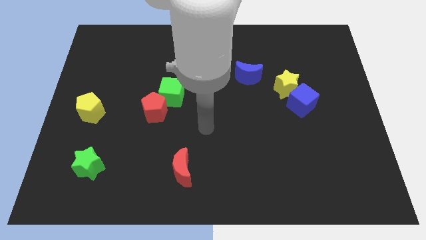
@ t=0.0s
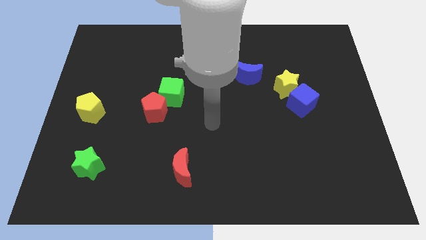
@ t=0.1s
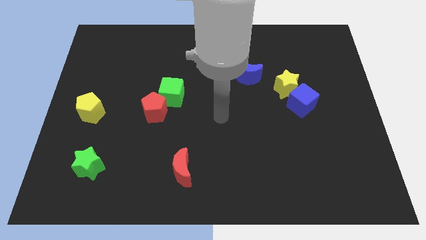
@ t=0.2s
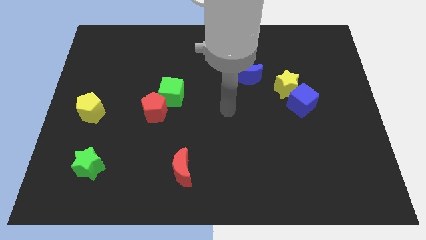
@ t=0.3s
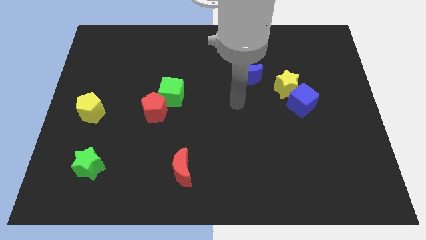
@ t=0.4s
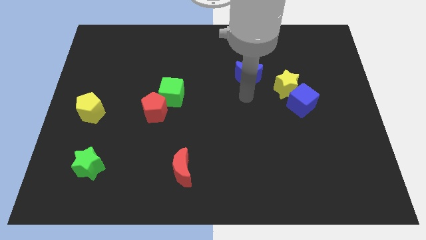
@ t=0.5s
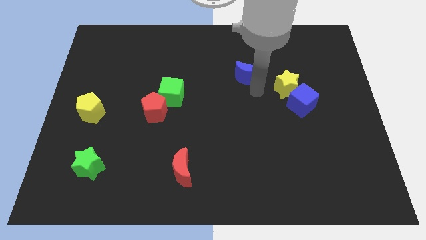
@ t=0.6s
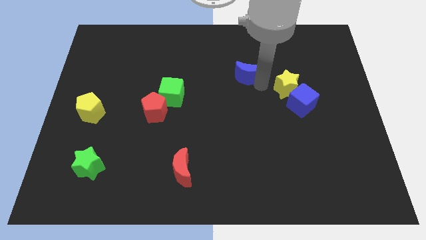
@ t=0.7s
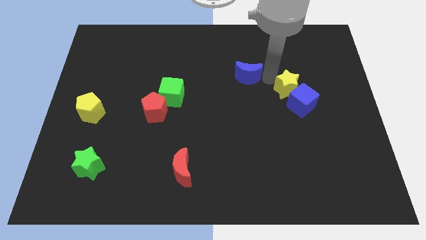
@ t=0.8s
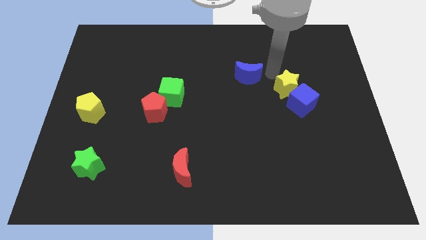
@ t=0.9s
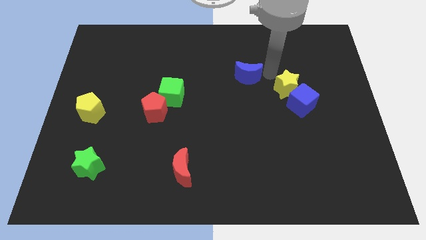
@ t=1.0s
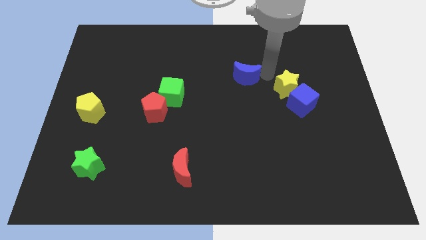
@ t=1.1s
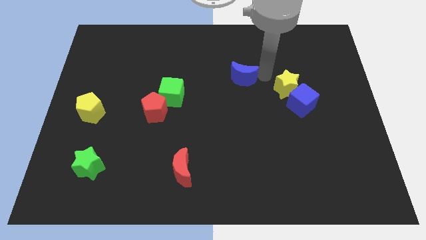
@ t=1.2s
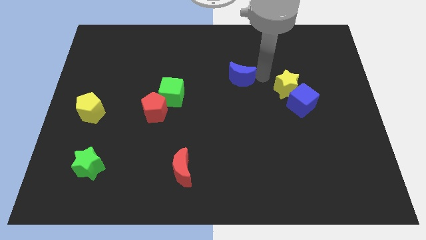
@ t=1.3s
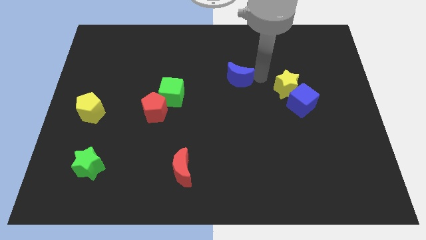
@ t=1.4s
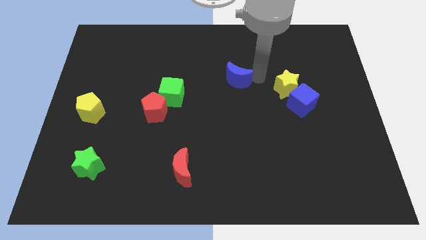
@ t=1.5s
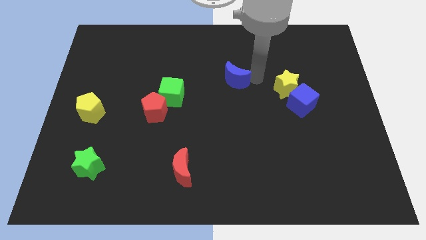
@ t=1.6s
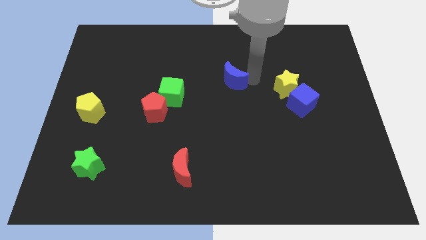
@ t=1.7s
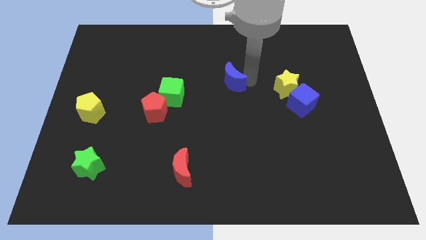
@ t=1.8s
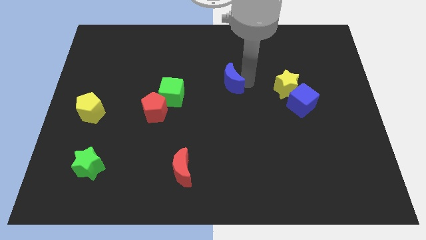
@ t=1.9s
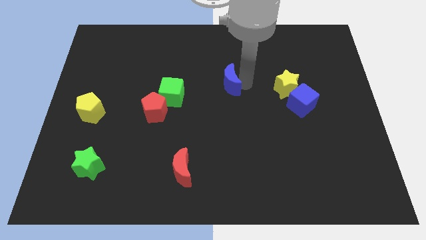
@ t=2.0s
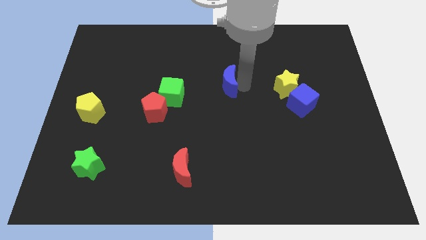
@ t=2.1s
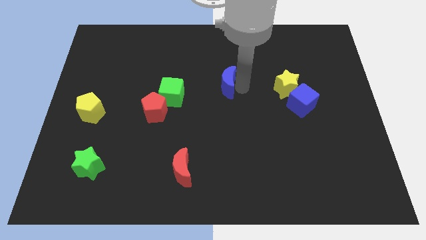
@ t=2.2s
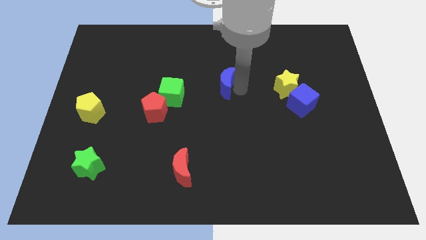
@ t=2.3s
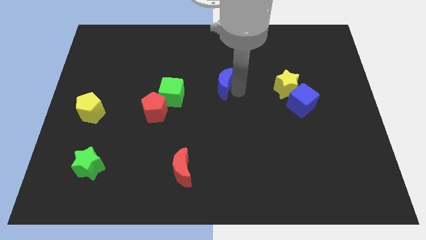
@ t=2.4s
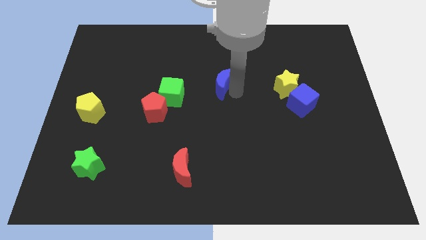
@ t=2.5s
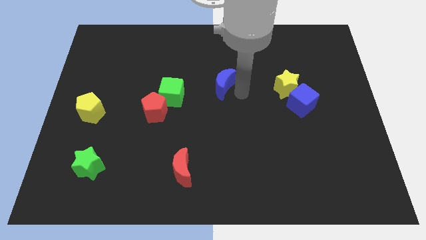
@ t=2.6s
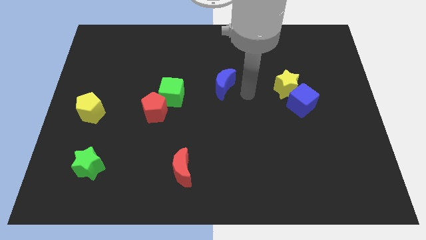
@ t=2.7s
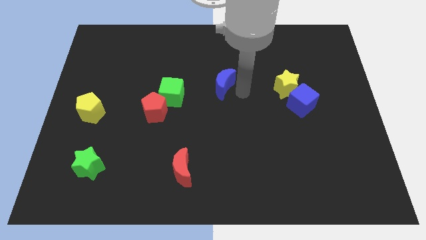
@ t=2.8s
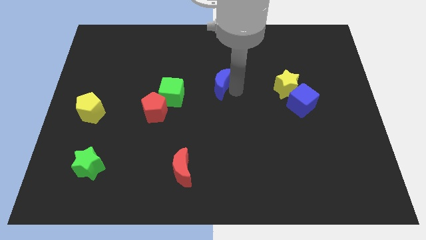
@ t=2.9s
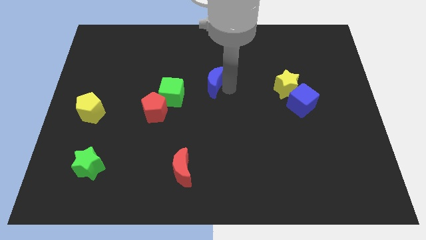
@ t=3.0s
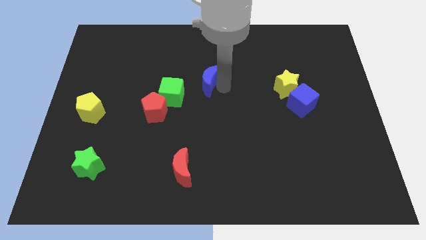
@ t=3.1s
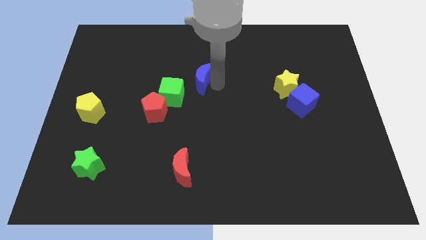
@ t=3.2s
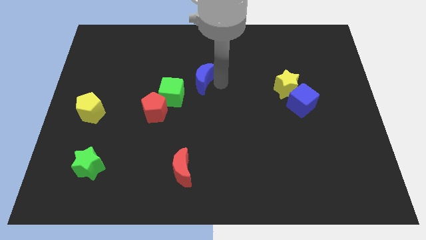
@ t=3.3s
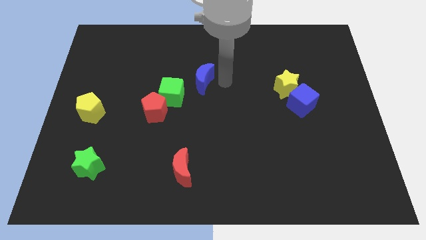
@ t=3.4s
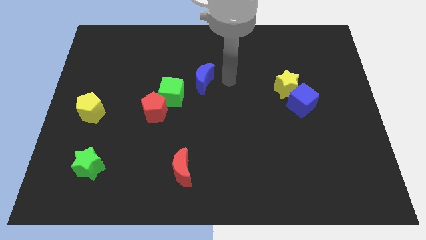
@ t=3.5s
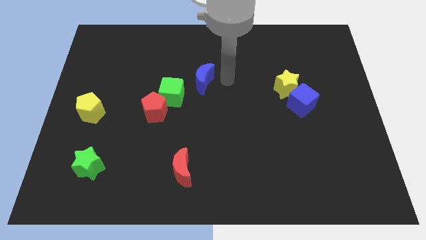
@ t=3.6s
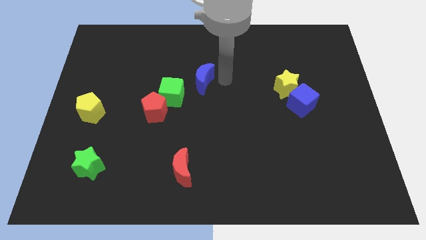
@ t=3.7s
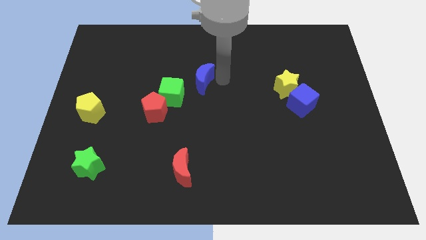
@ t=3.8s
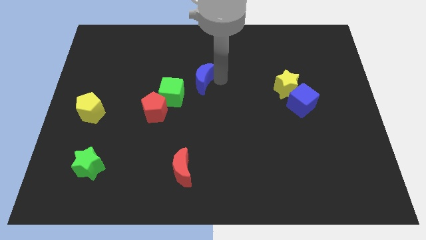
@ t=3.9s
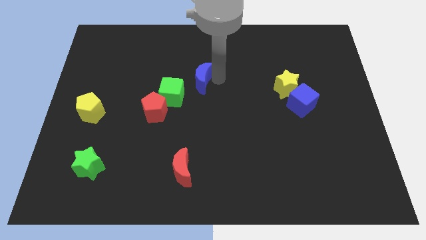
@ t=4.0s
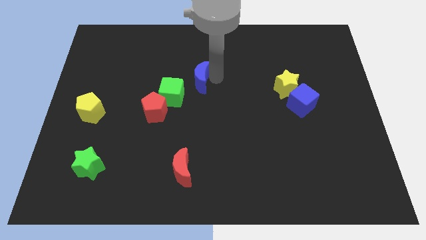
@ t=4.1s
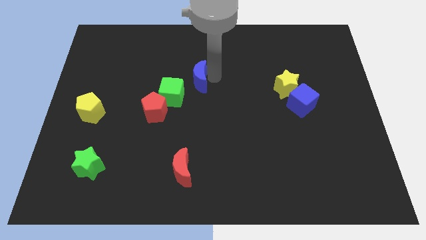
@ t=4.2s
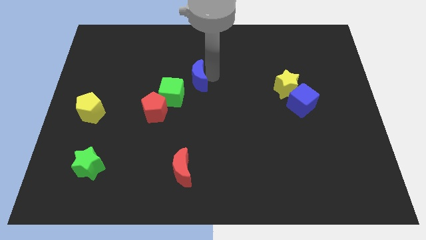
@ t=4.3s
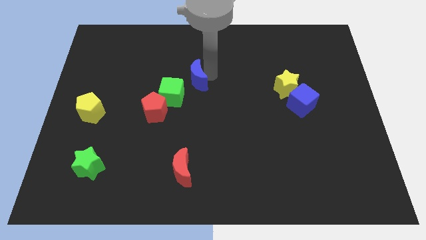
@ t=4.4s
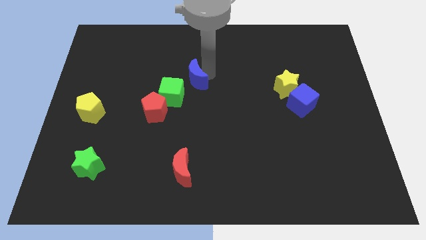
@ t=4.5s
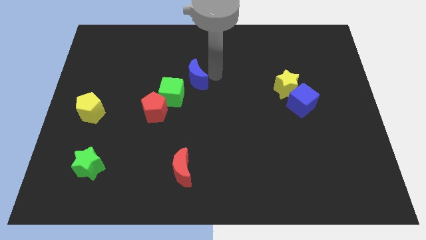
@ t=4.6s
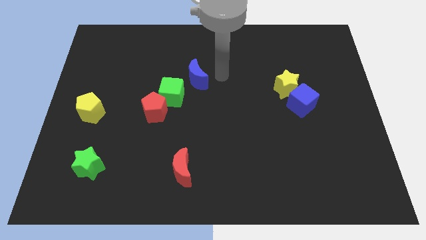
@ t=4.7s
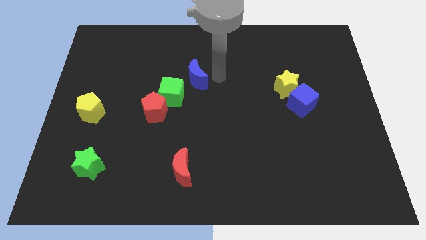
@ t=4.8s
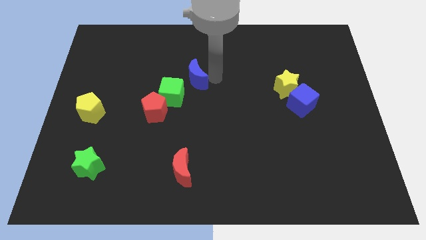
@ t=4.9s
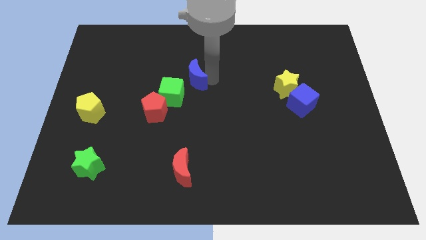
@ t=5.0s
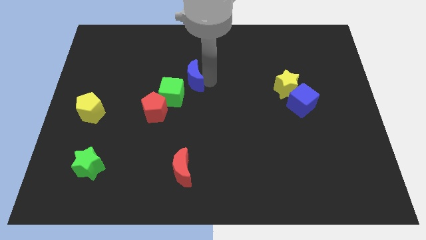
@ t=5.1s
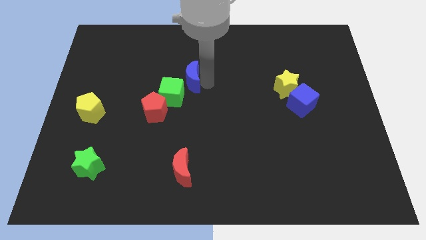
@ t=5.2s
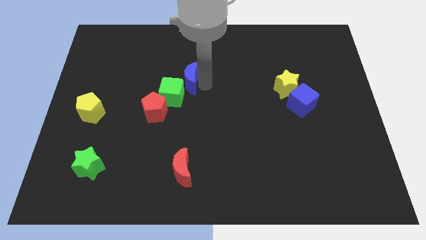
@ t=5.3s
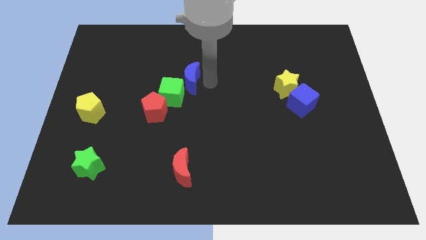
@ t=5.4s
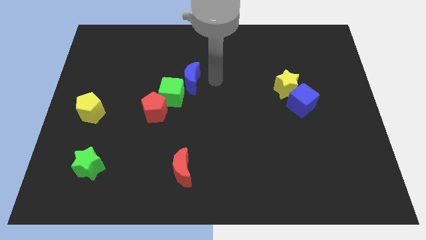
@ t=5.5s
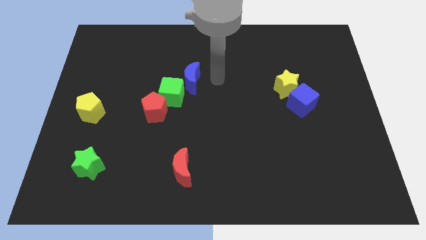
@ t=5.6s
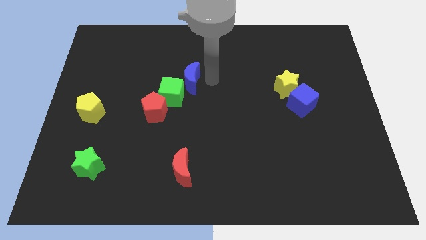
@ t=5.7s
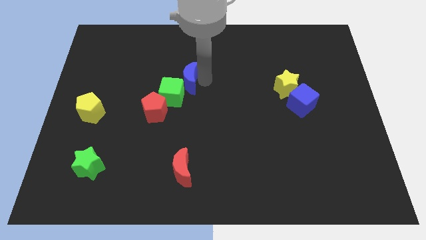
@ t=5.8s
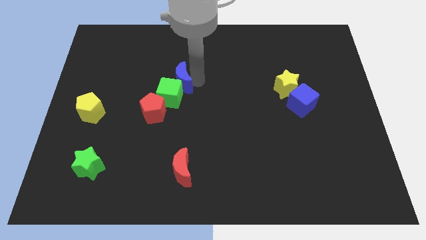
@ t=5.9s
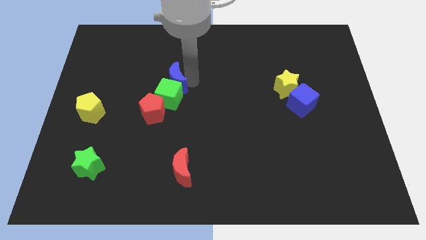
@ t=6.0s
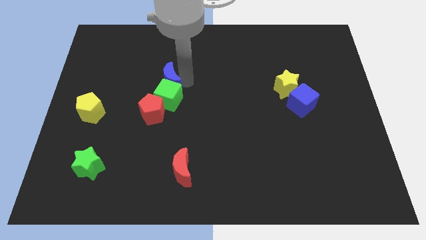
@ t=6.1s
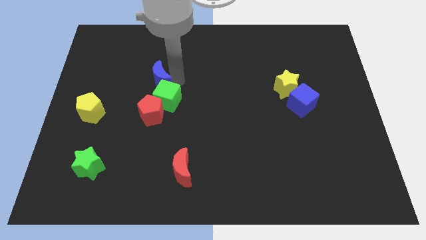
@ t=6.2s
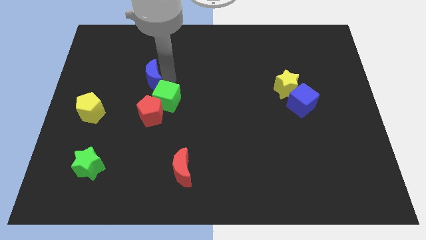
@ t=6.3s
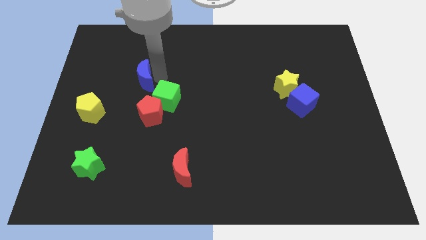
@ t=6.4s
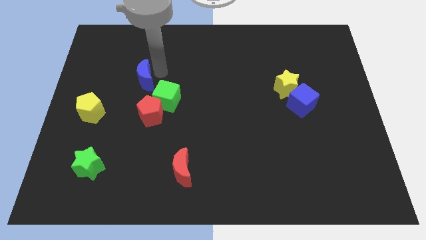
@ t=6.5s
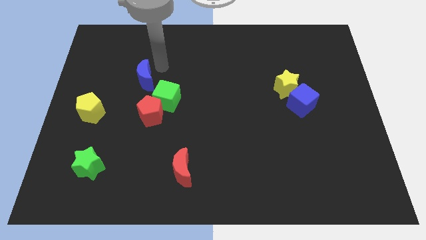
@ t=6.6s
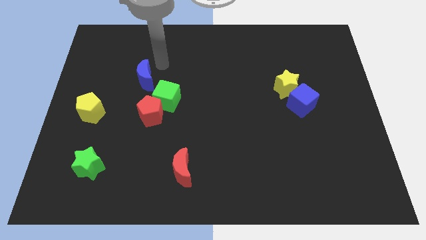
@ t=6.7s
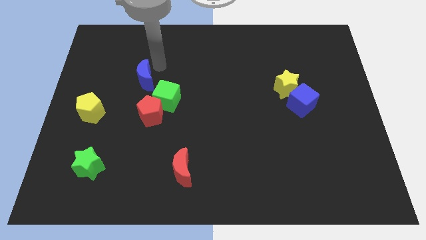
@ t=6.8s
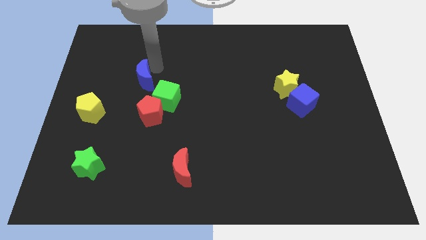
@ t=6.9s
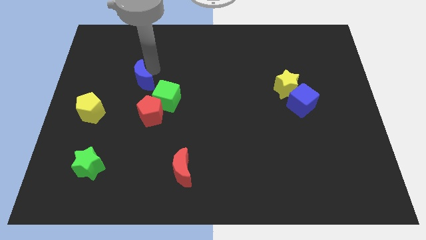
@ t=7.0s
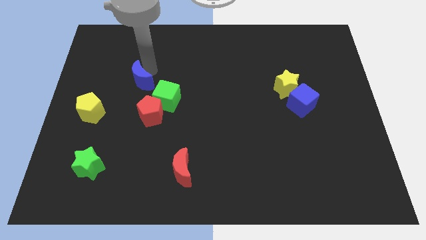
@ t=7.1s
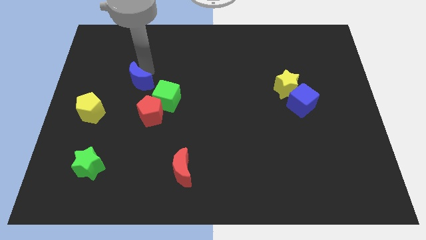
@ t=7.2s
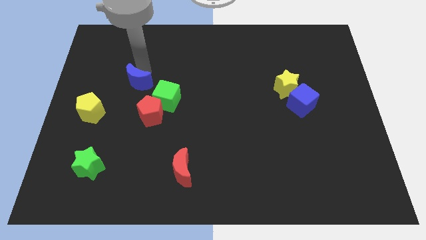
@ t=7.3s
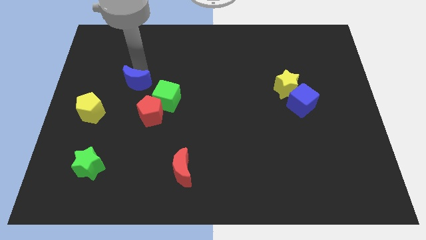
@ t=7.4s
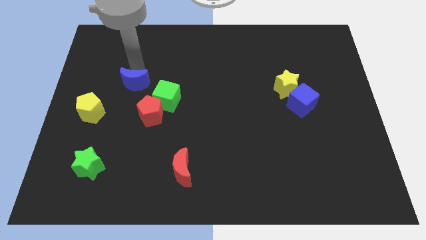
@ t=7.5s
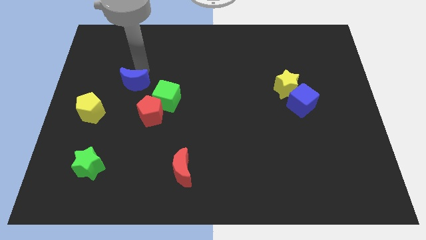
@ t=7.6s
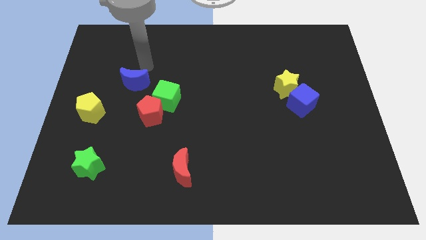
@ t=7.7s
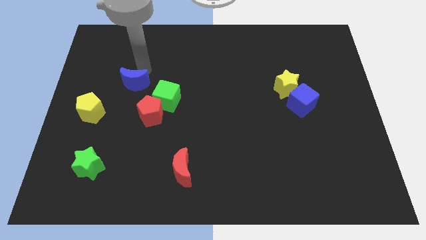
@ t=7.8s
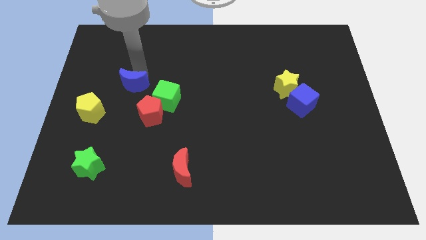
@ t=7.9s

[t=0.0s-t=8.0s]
put the blue moon to the left side of the green cube
